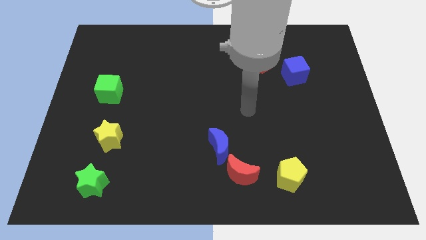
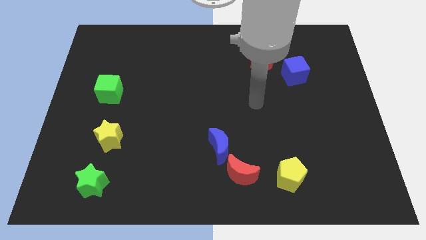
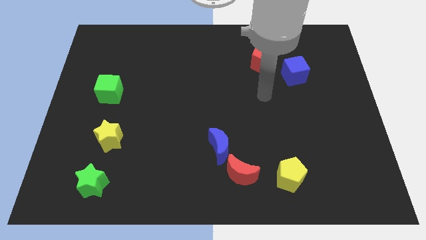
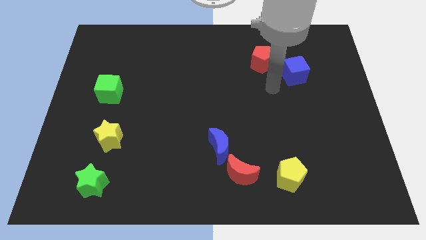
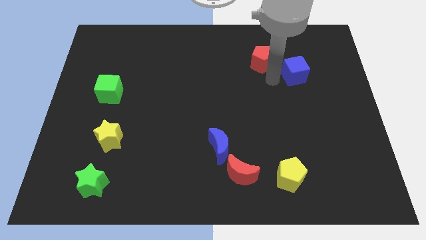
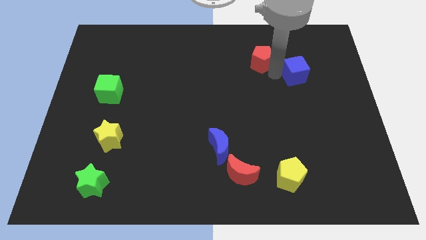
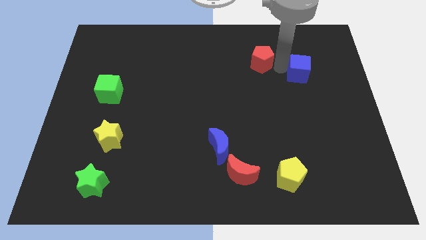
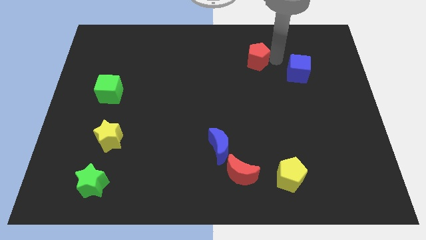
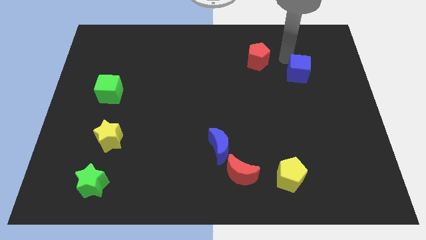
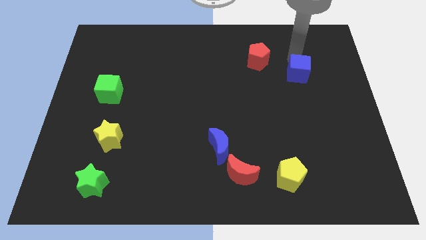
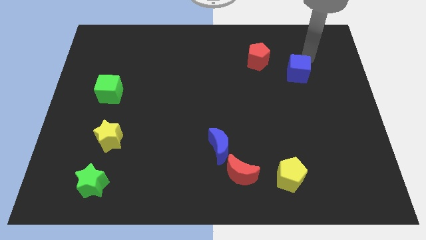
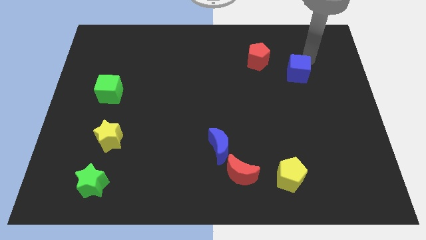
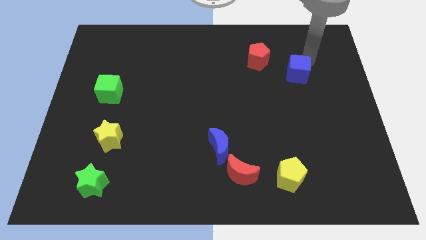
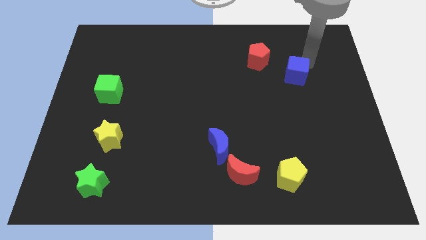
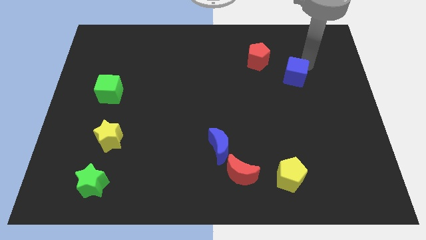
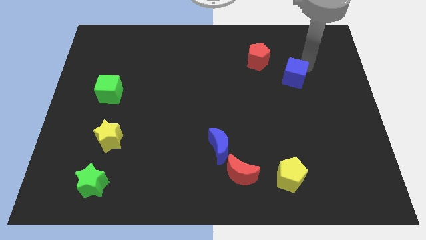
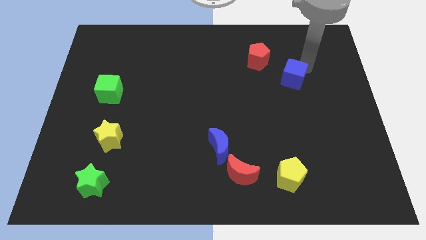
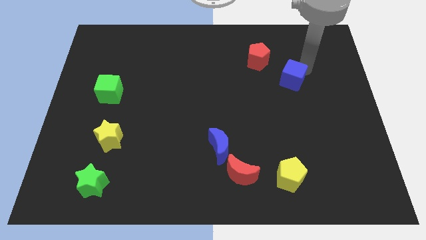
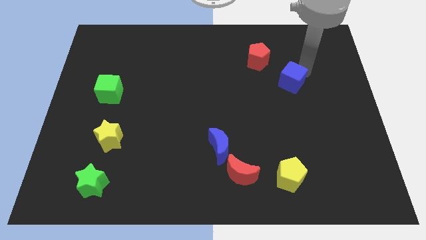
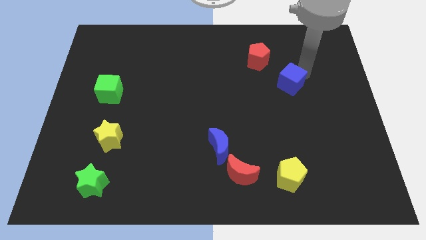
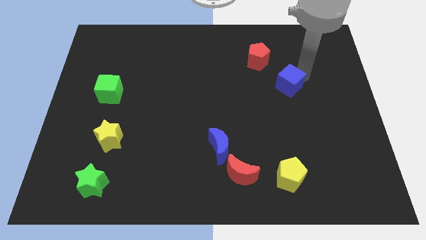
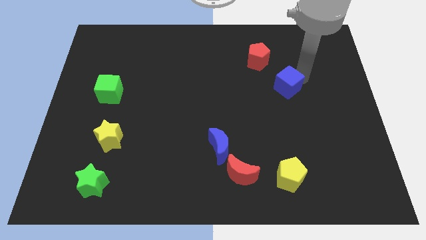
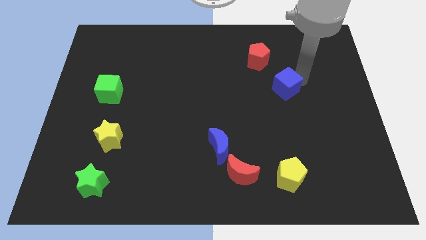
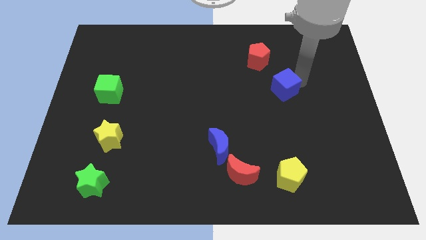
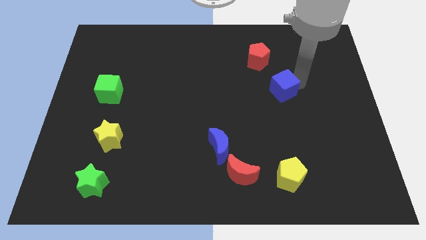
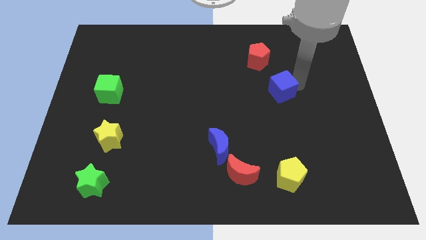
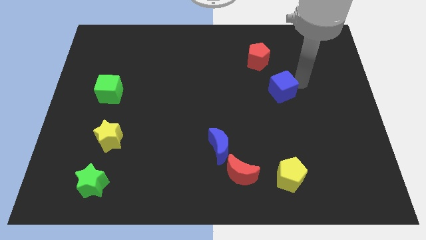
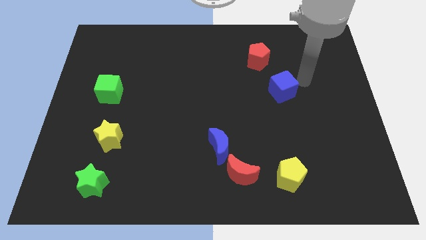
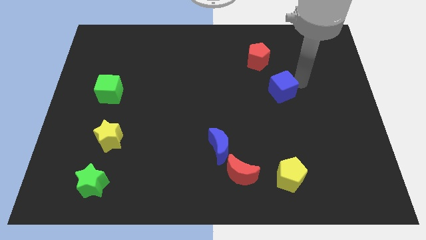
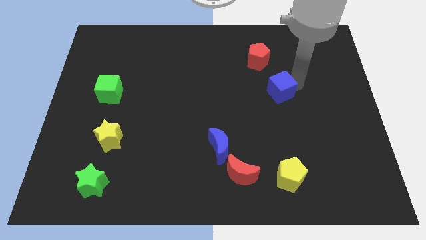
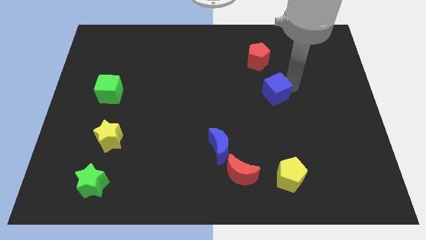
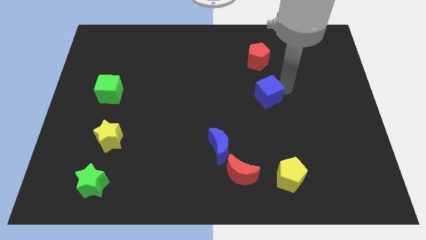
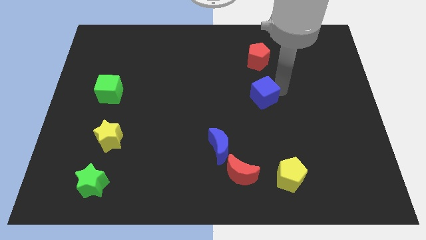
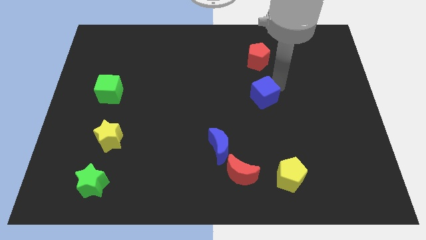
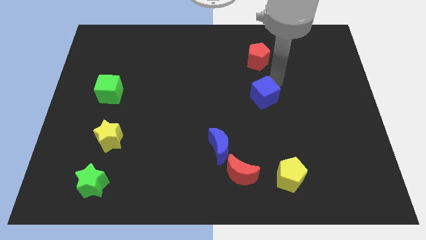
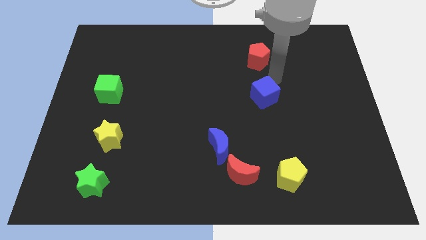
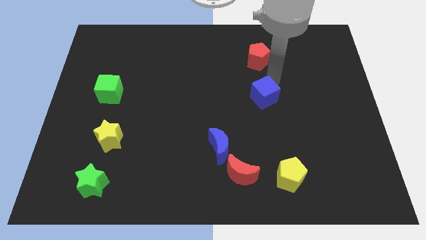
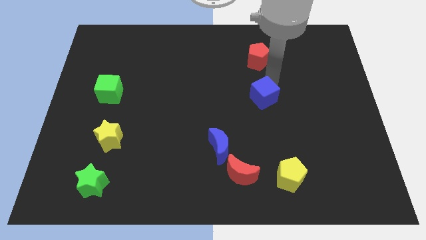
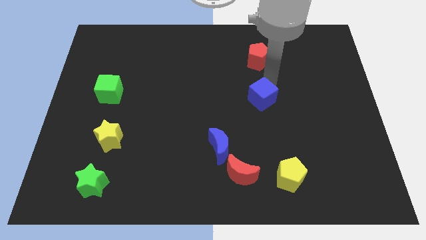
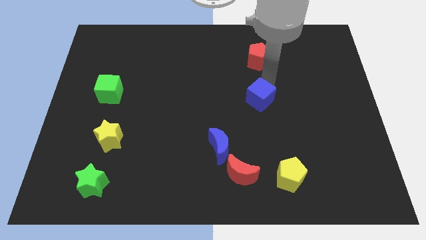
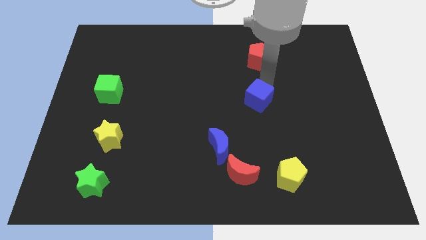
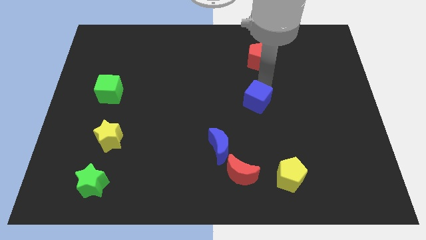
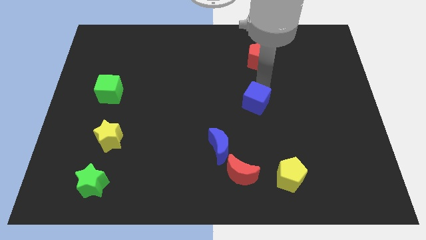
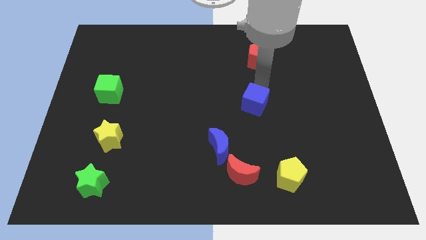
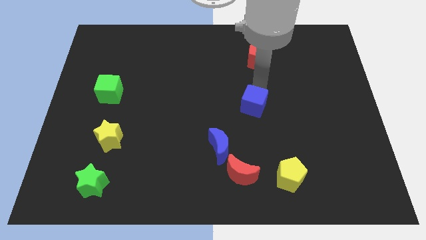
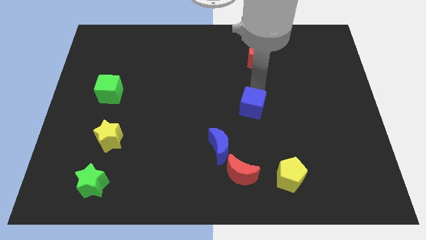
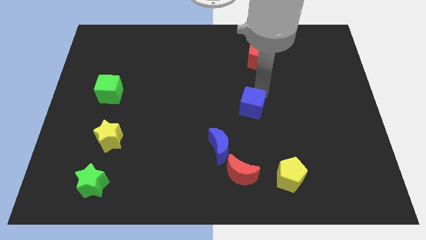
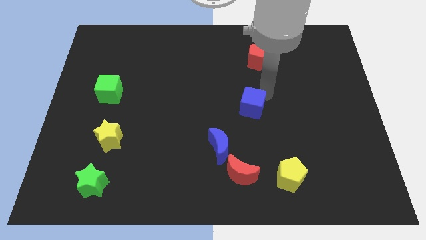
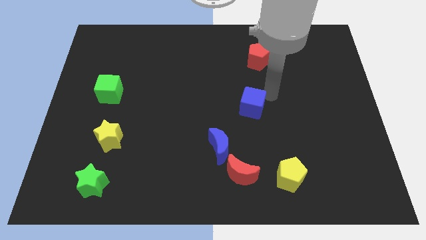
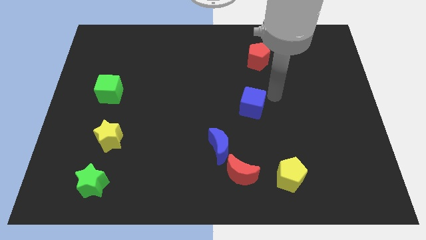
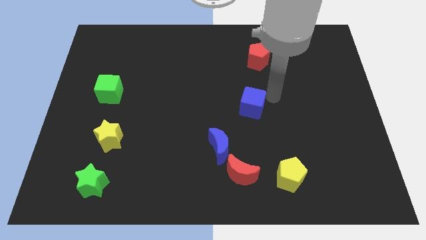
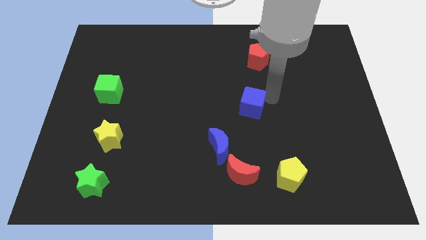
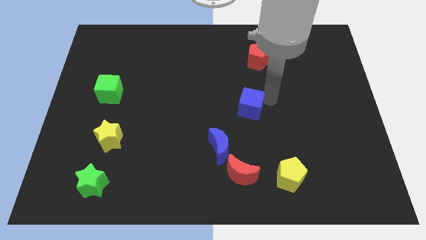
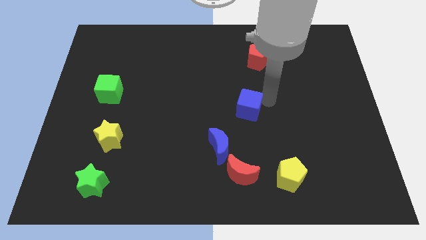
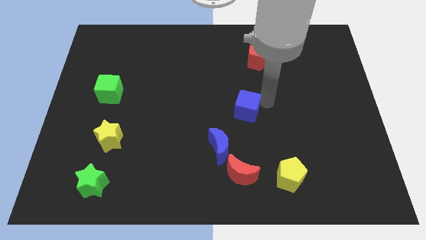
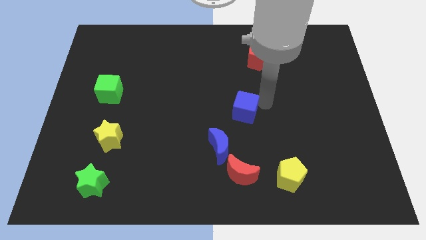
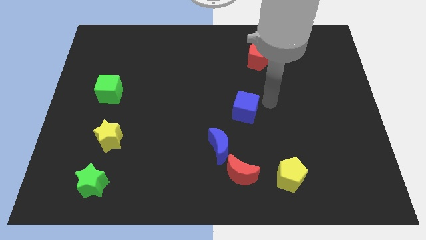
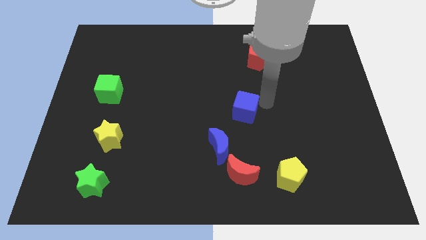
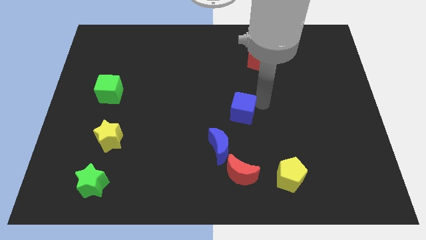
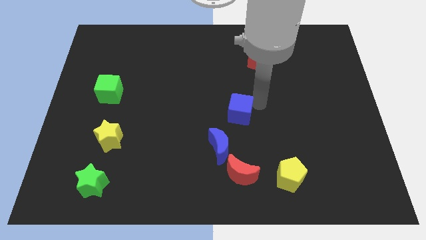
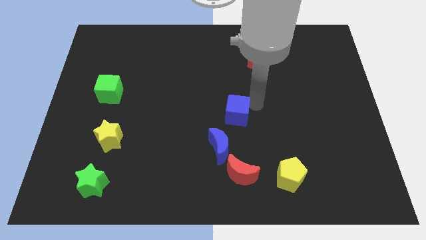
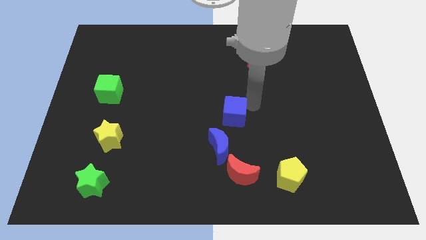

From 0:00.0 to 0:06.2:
push the blue cube diagonally downwards and left

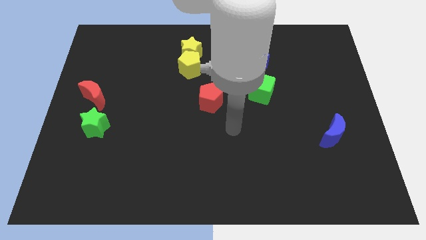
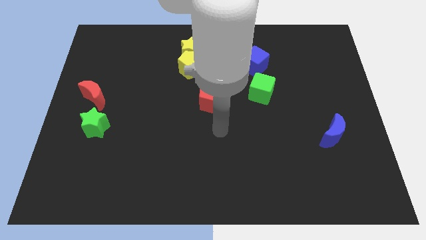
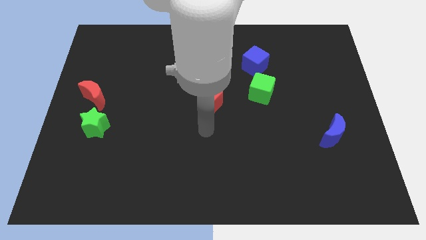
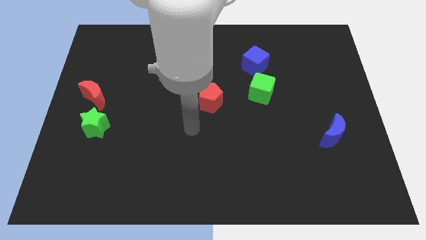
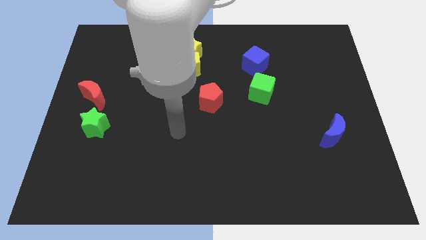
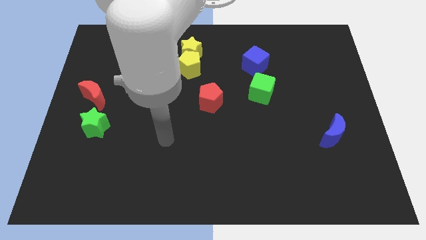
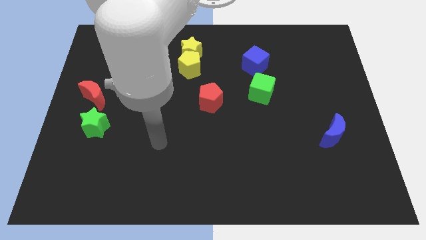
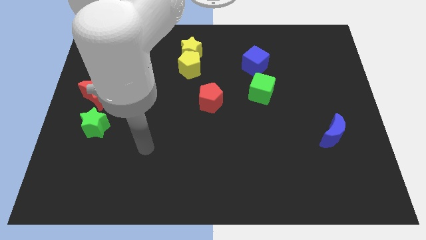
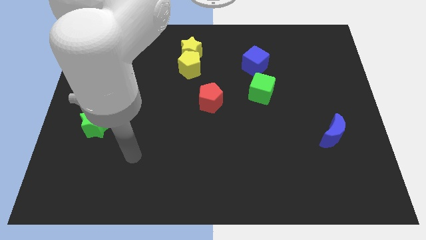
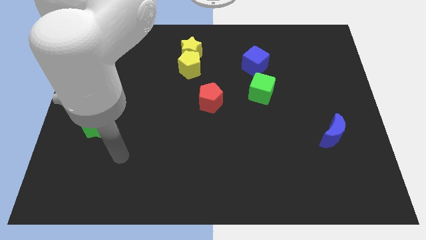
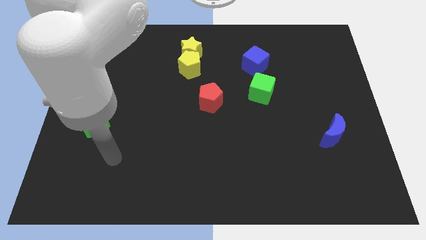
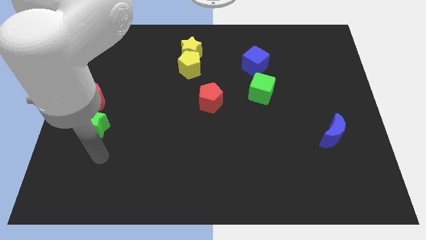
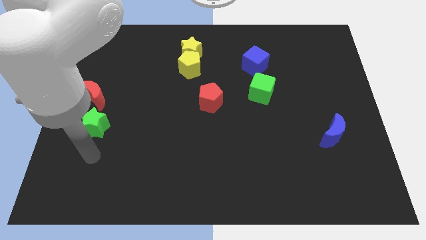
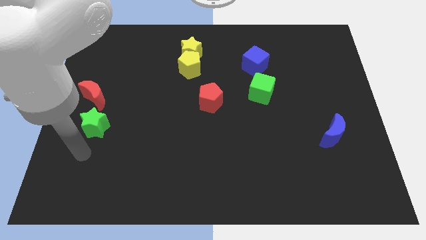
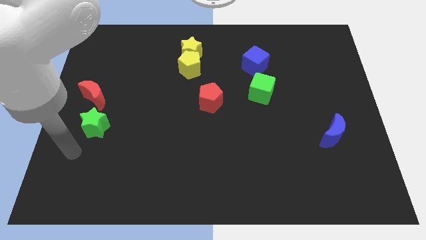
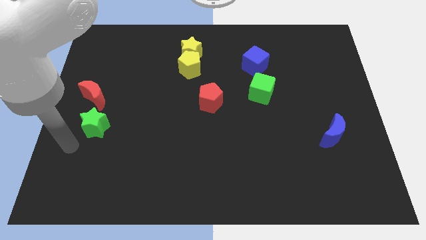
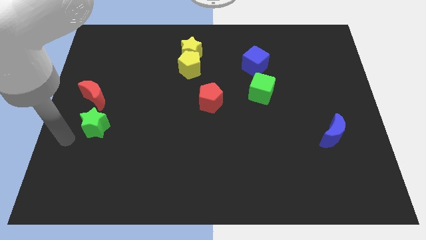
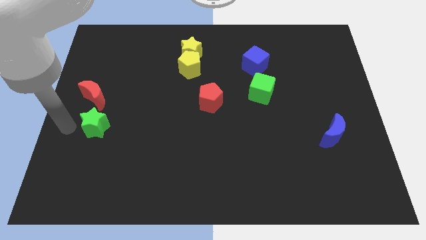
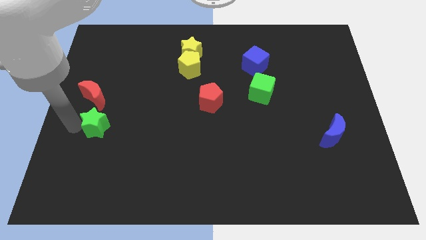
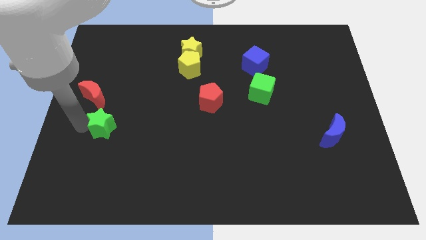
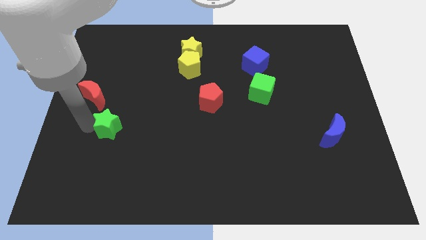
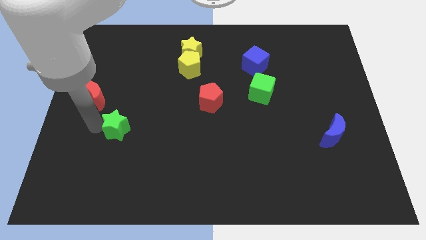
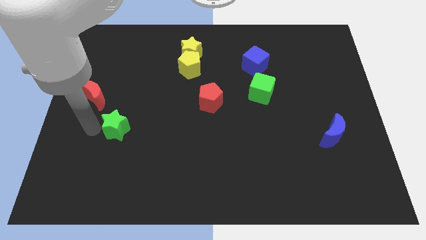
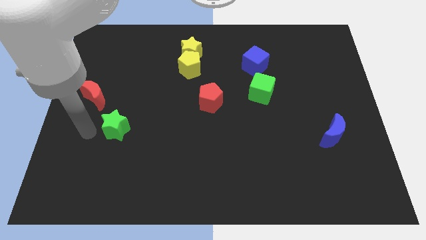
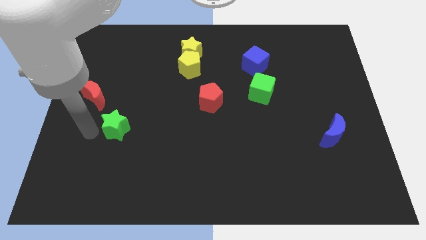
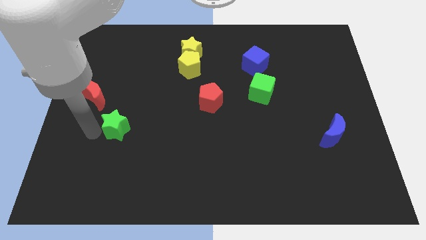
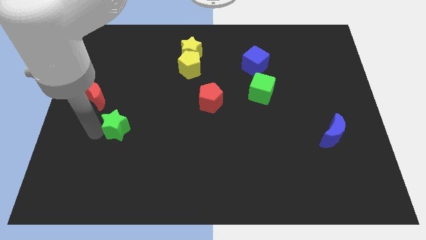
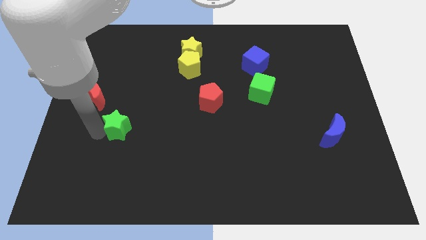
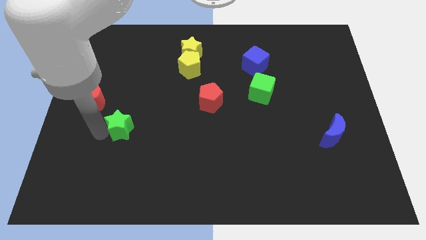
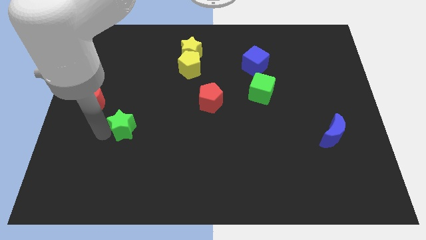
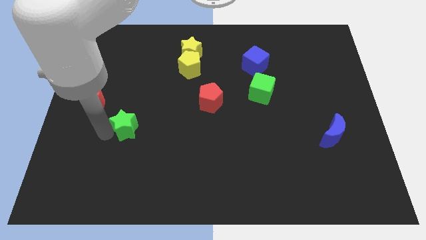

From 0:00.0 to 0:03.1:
push the green star to the right a little bit
